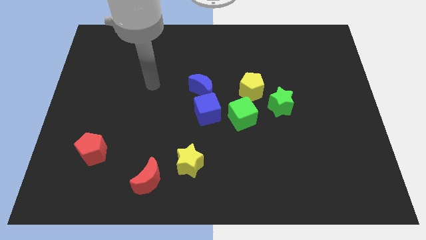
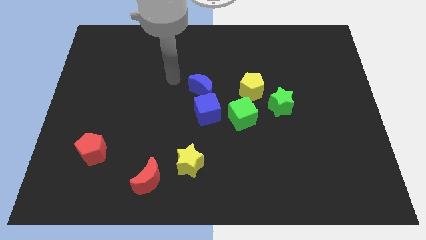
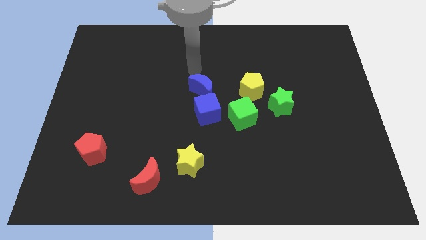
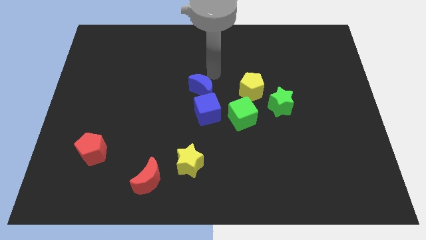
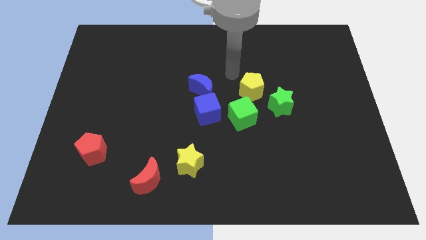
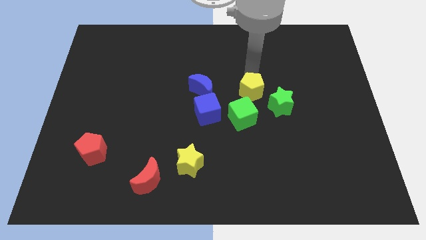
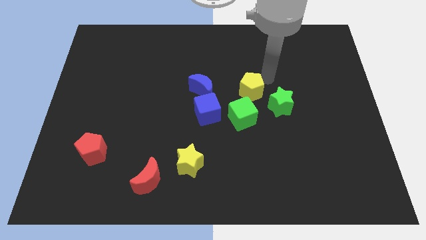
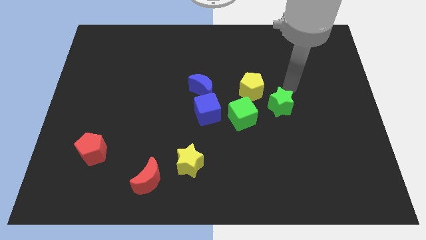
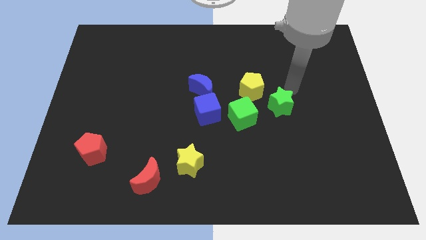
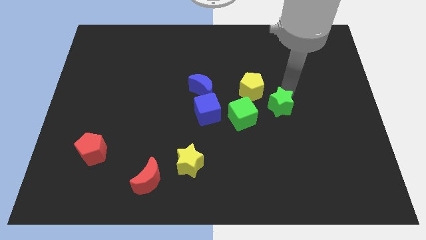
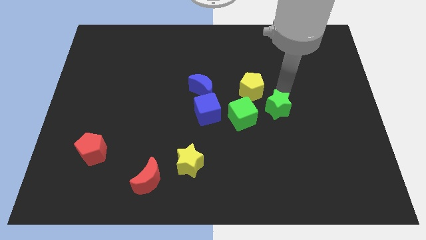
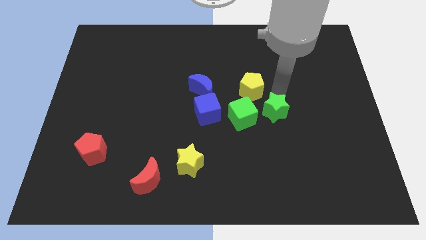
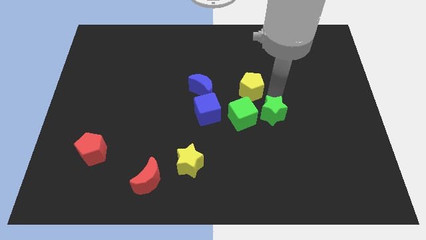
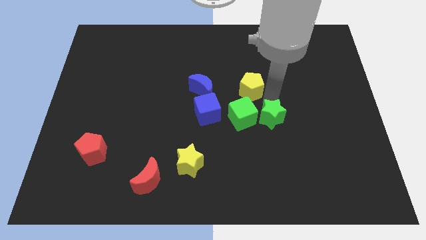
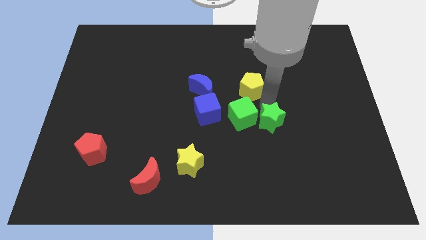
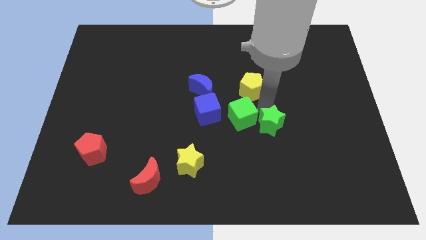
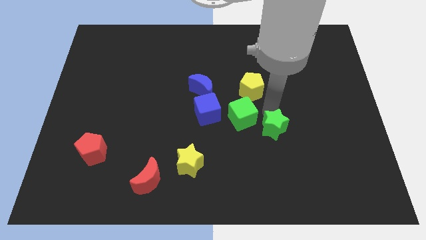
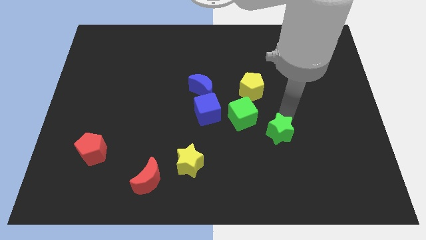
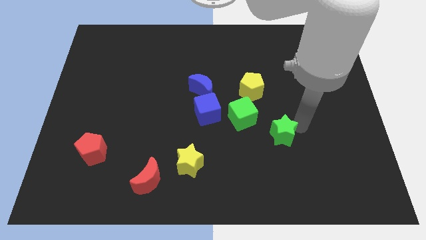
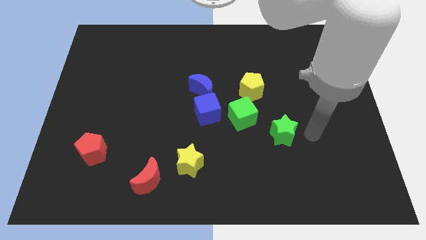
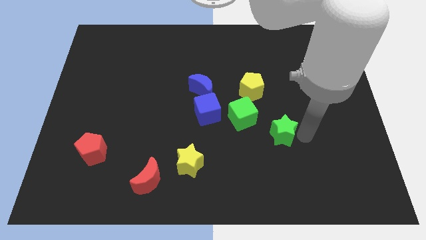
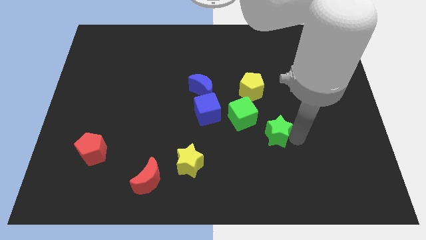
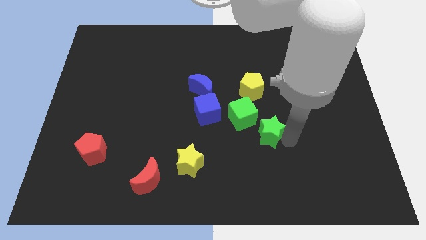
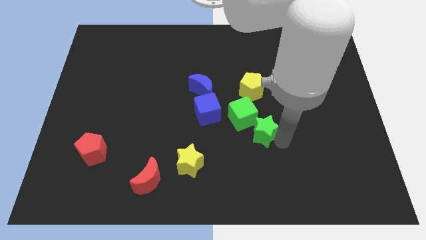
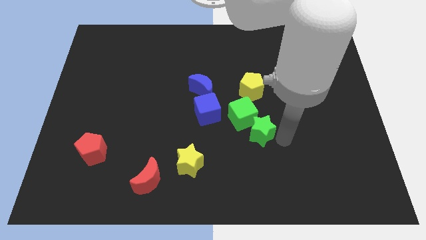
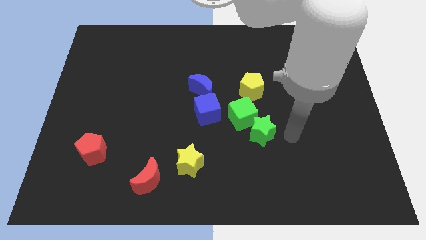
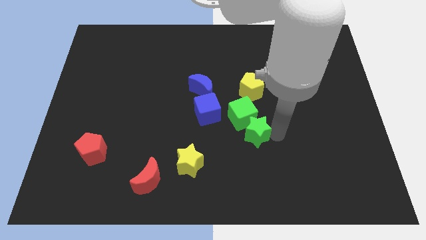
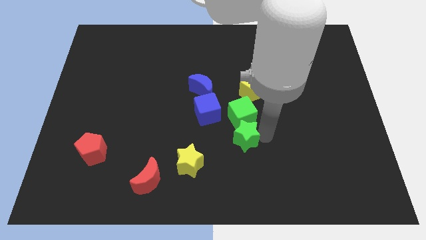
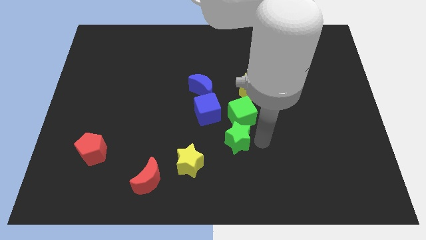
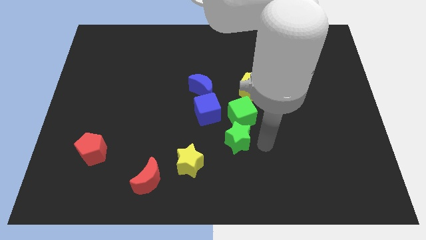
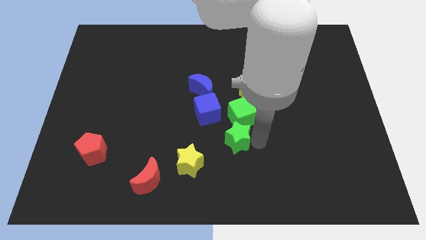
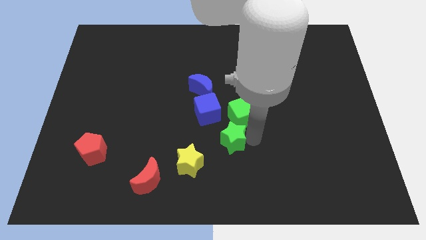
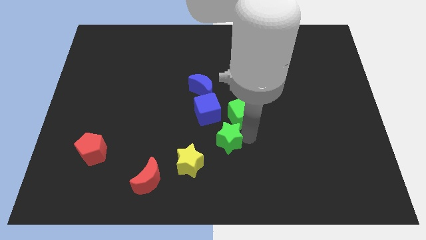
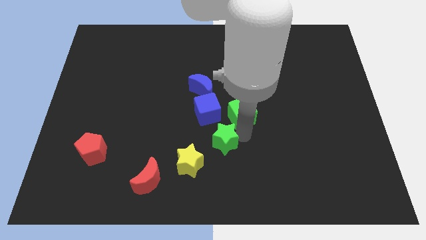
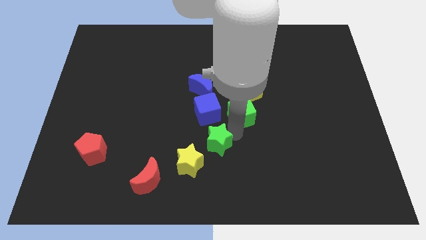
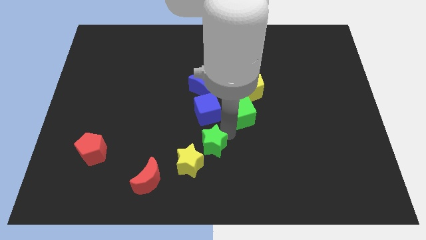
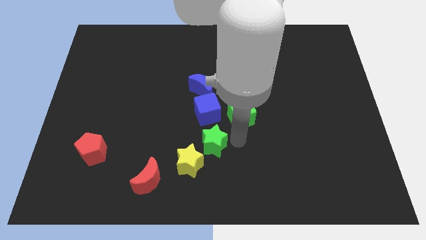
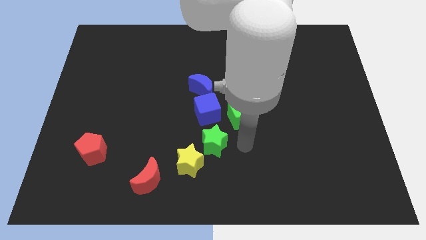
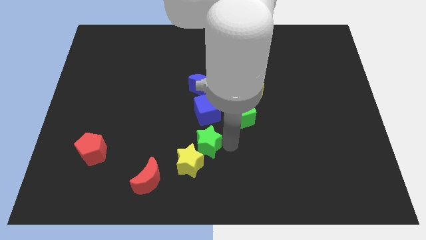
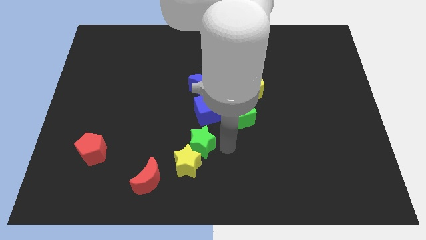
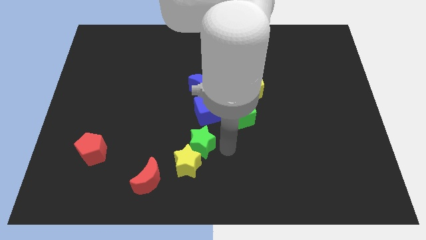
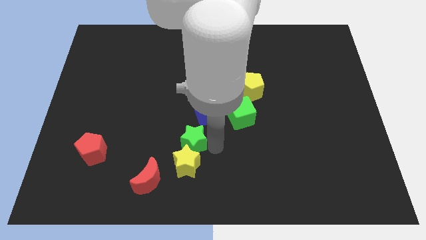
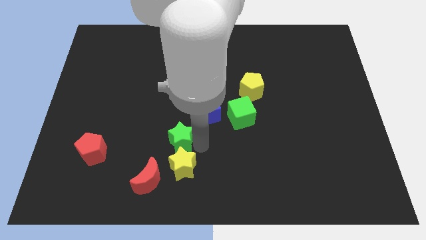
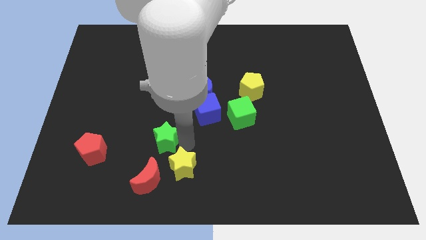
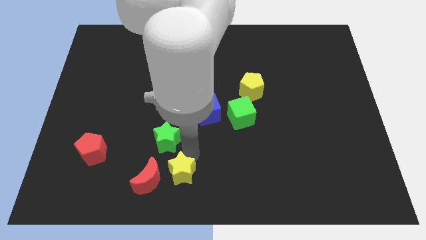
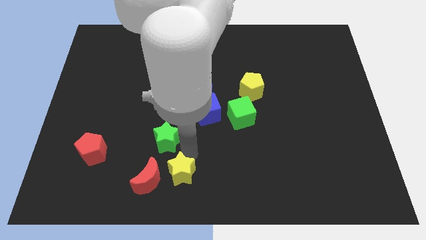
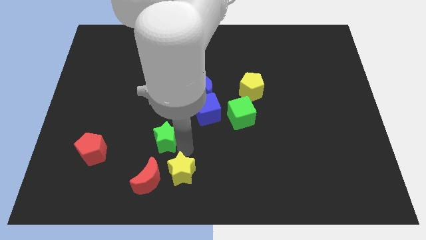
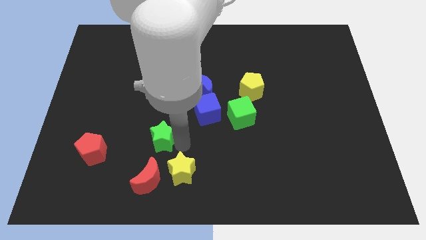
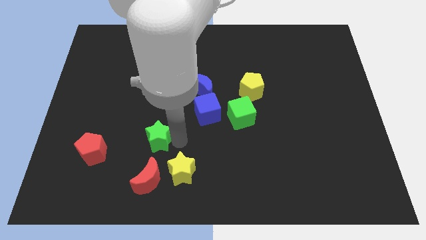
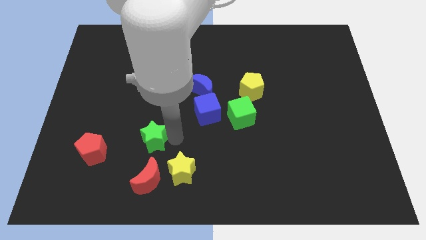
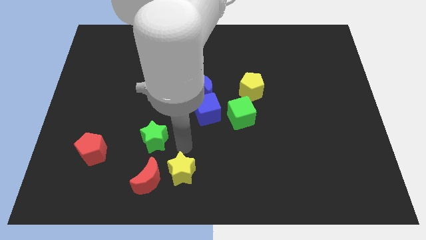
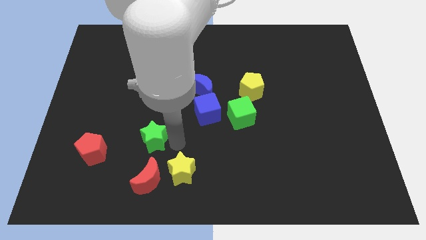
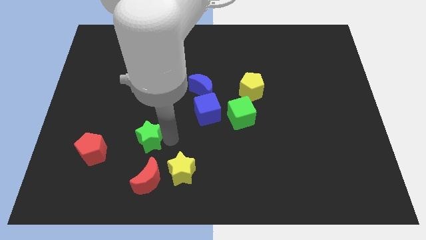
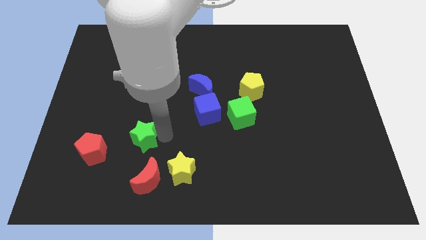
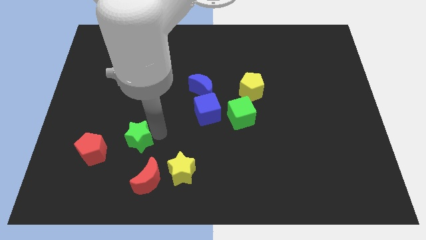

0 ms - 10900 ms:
slide the green star diagonally up and to the right of the red pentagon

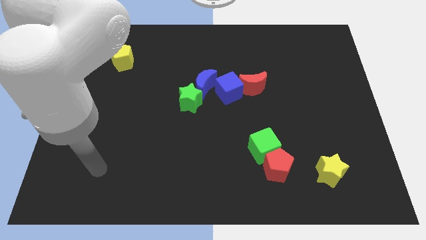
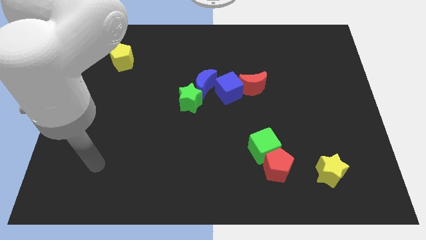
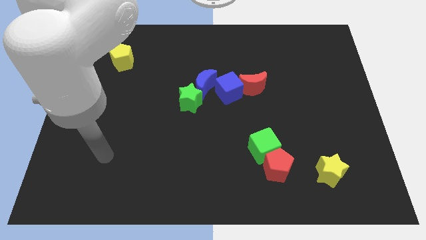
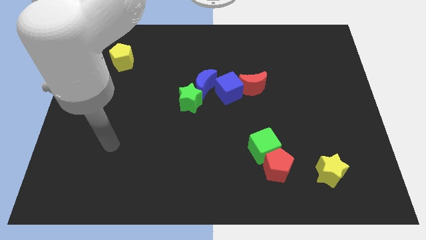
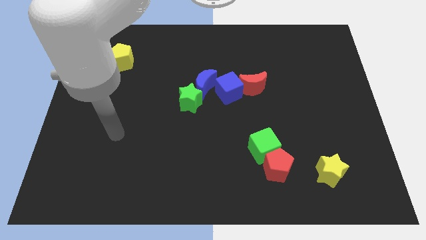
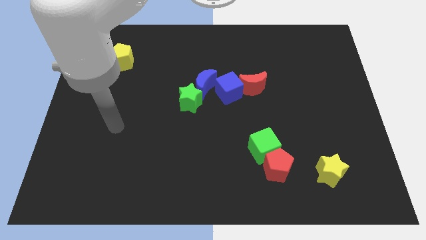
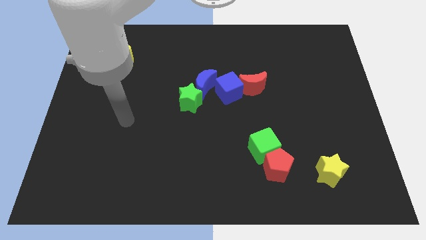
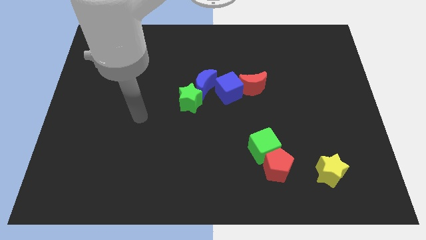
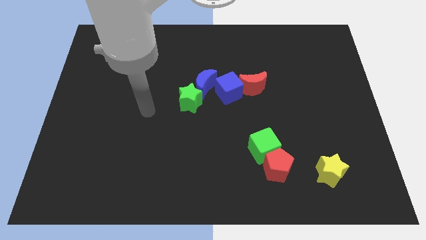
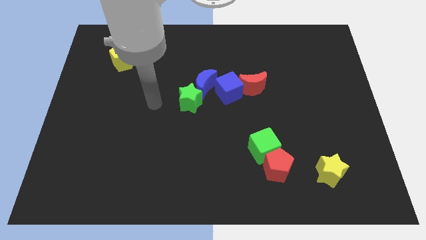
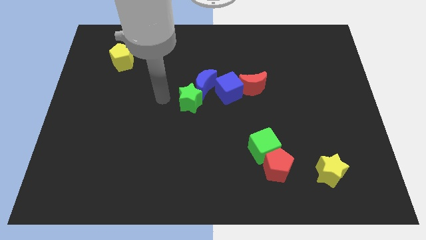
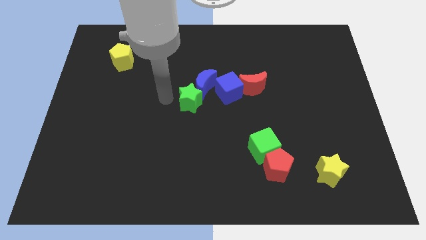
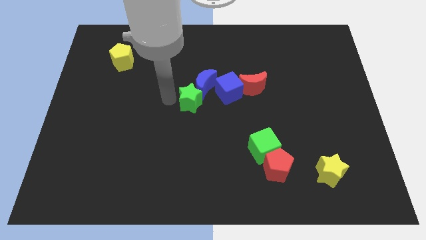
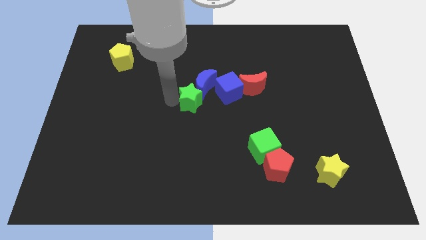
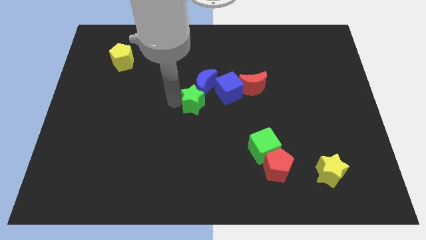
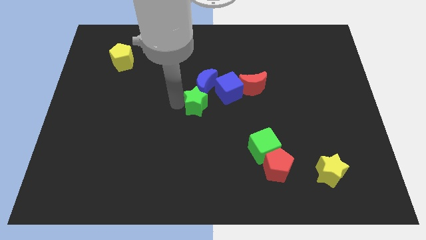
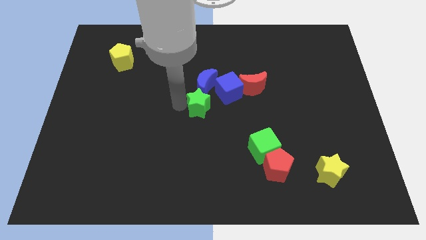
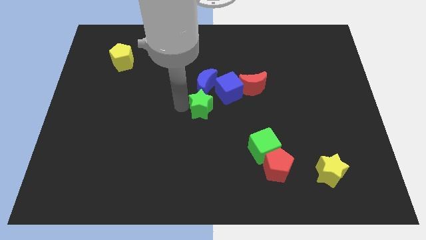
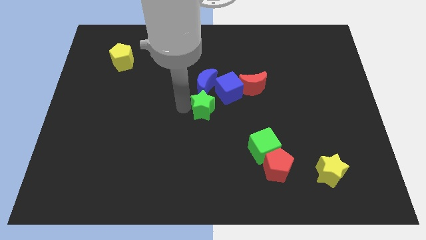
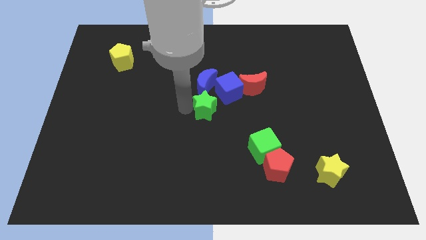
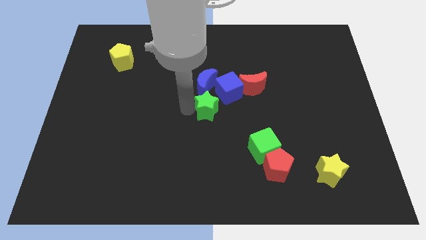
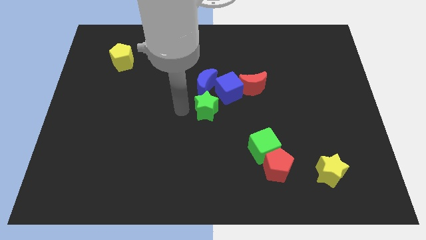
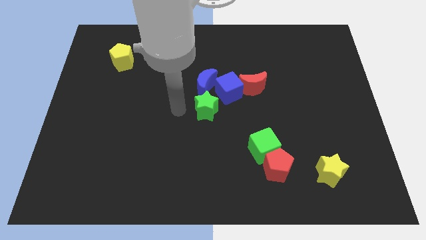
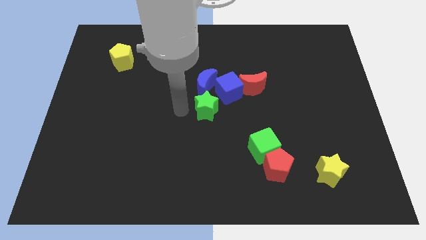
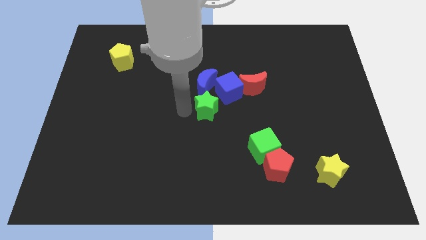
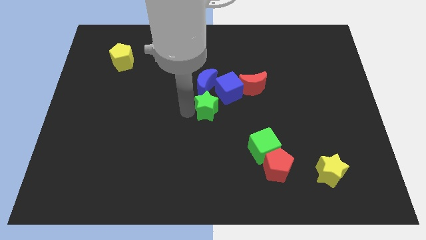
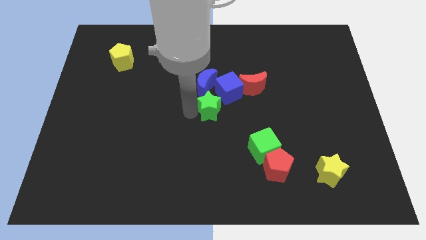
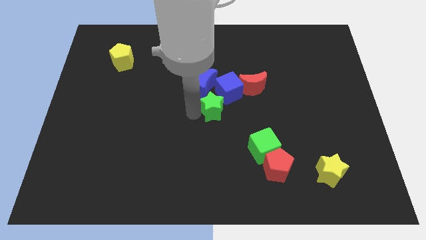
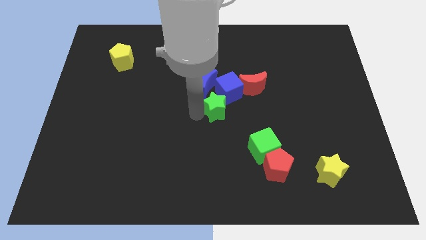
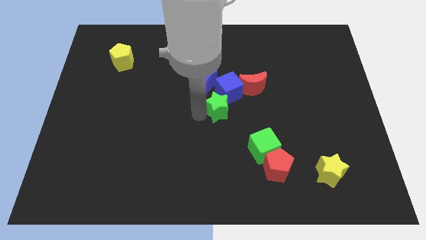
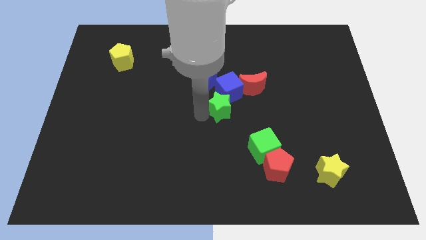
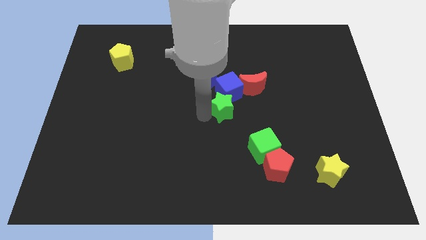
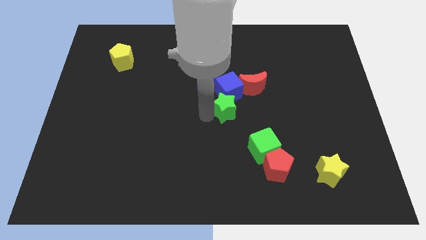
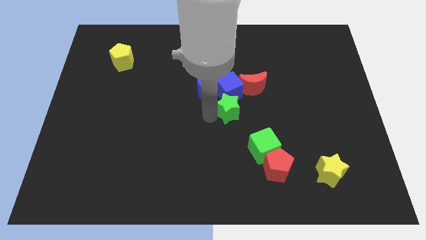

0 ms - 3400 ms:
put the green star to the bottom right of the blue cube
